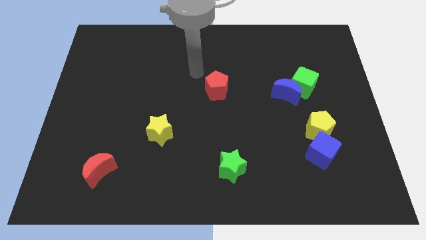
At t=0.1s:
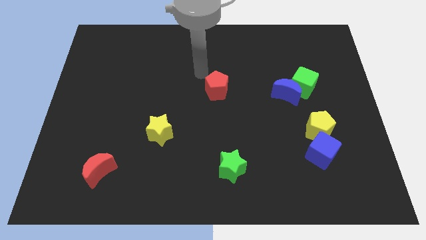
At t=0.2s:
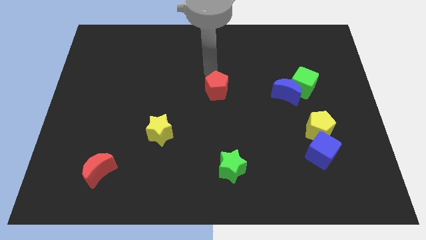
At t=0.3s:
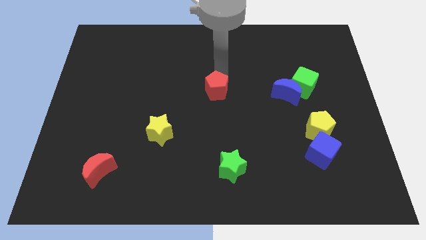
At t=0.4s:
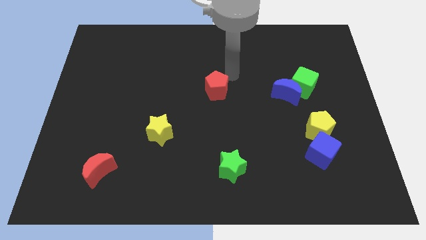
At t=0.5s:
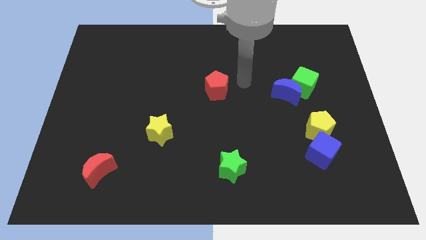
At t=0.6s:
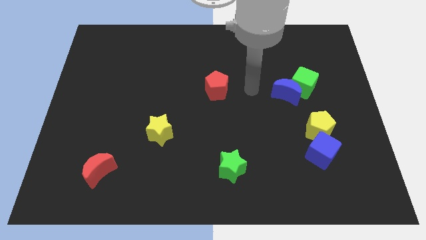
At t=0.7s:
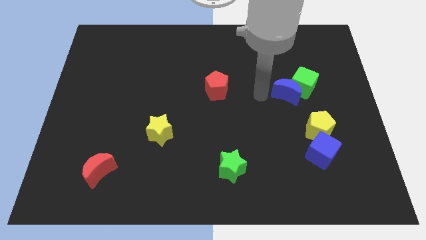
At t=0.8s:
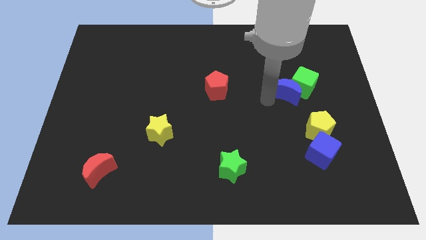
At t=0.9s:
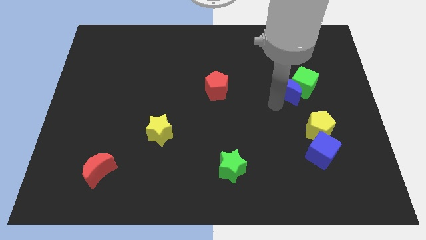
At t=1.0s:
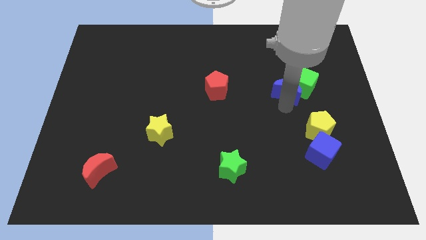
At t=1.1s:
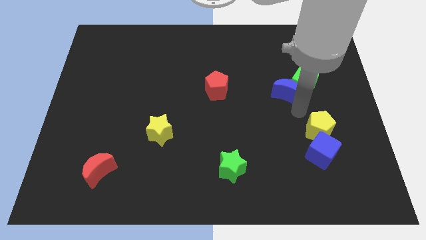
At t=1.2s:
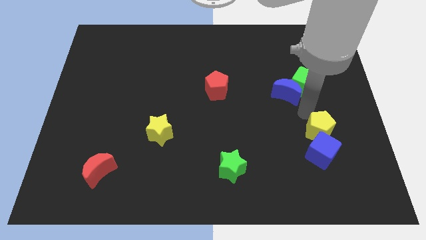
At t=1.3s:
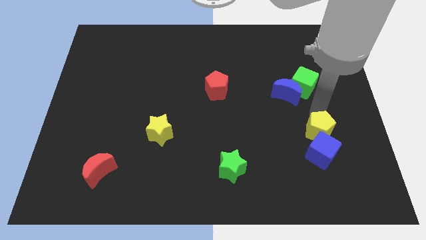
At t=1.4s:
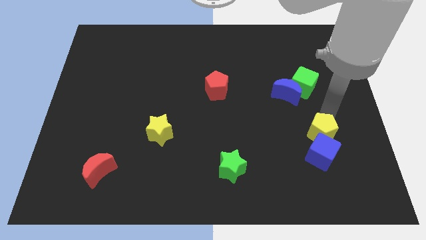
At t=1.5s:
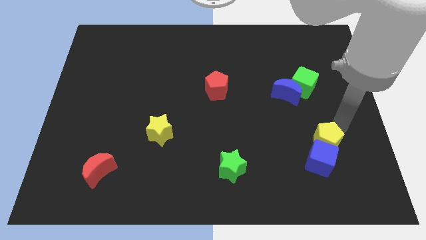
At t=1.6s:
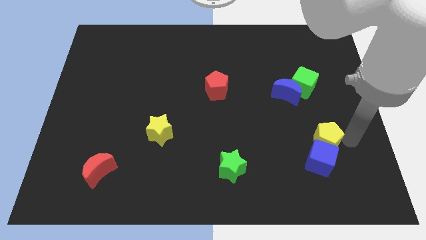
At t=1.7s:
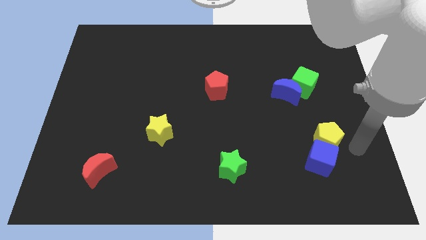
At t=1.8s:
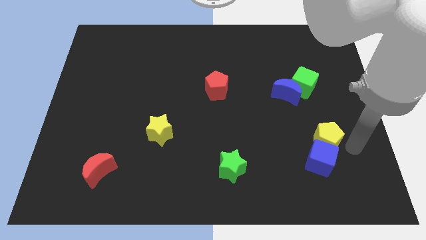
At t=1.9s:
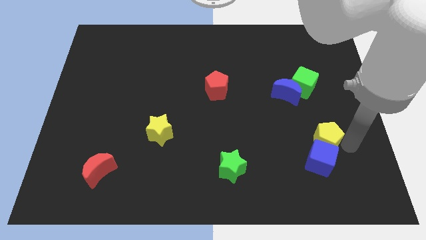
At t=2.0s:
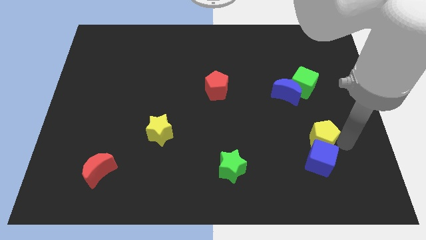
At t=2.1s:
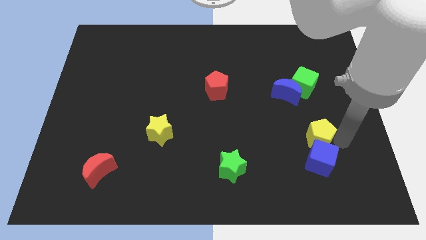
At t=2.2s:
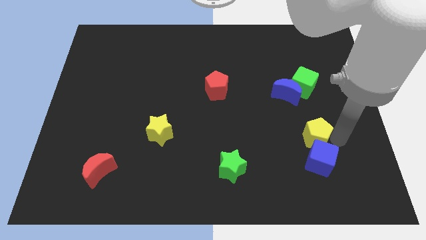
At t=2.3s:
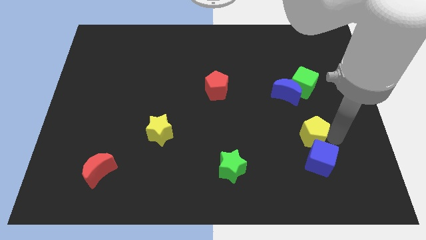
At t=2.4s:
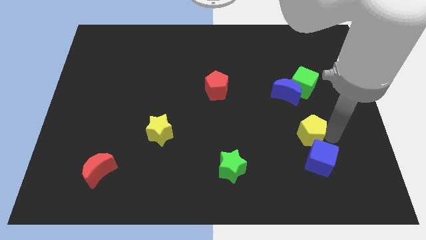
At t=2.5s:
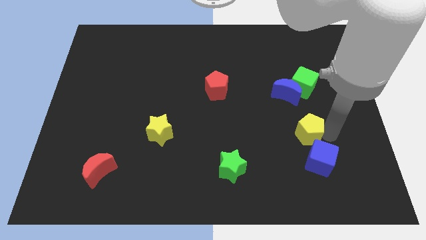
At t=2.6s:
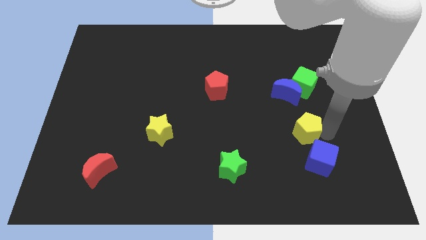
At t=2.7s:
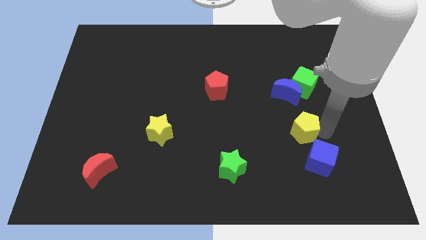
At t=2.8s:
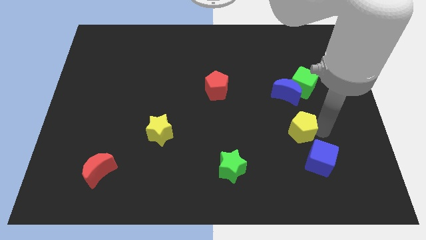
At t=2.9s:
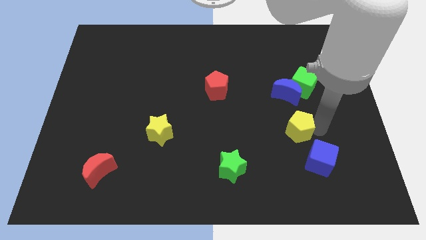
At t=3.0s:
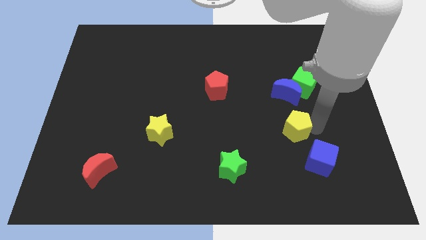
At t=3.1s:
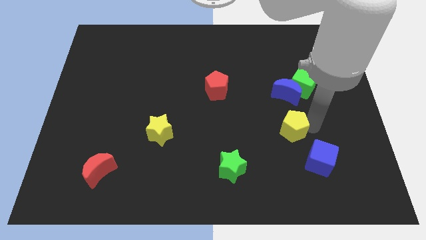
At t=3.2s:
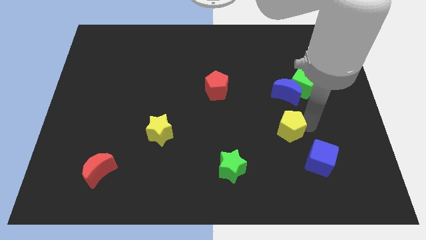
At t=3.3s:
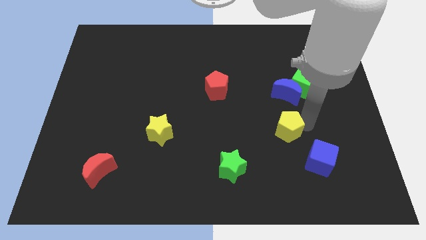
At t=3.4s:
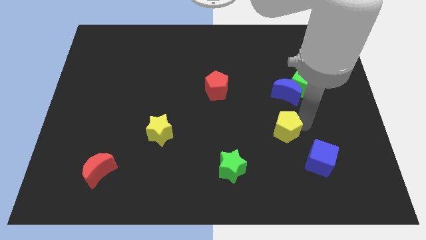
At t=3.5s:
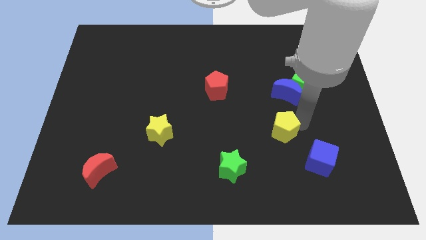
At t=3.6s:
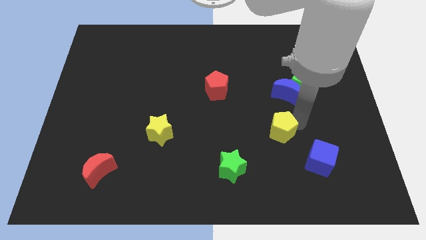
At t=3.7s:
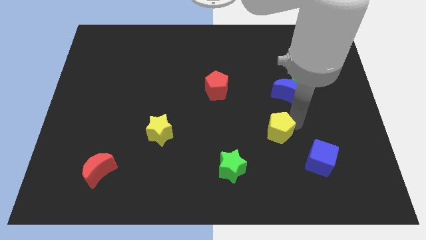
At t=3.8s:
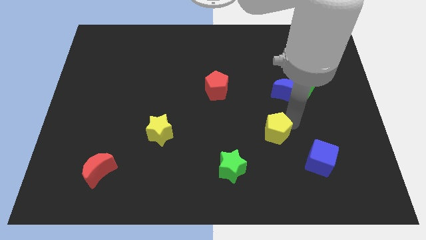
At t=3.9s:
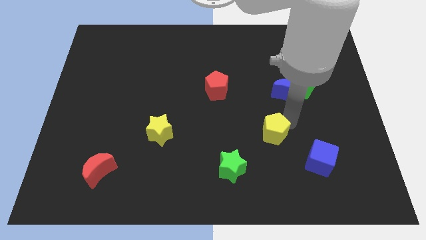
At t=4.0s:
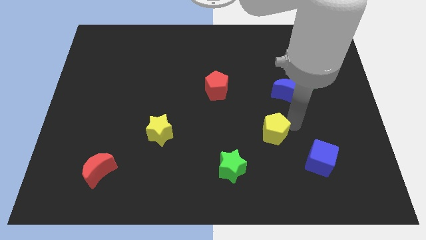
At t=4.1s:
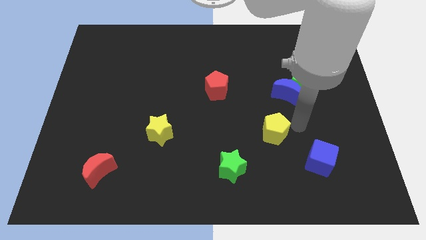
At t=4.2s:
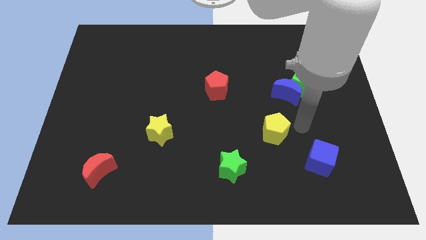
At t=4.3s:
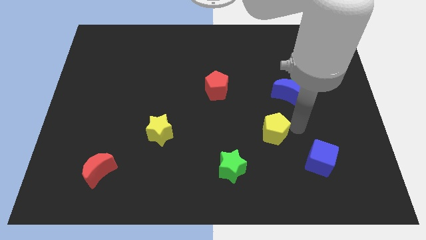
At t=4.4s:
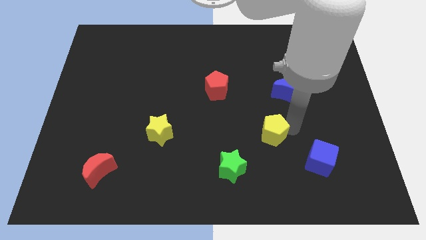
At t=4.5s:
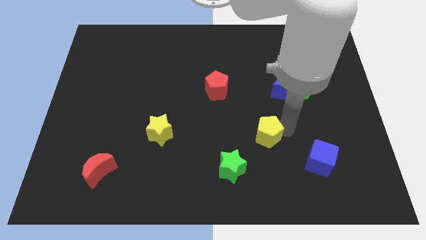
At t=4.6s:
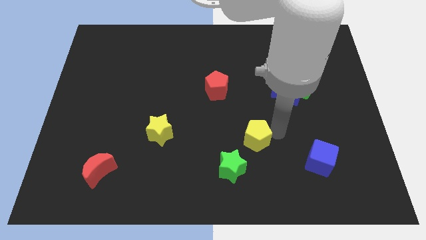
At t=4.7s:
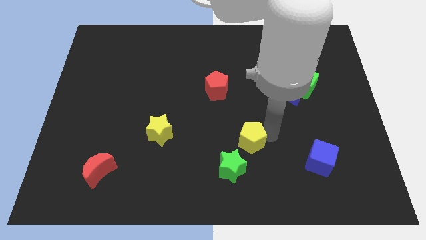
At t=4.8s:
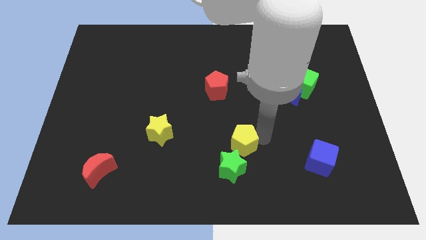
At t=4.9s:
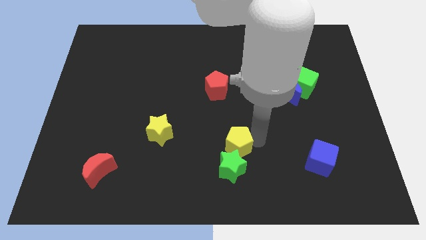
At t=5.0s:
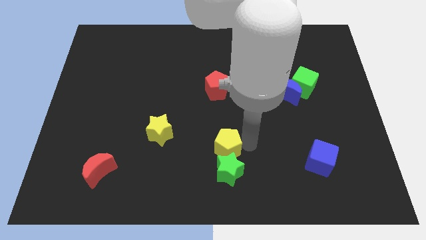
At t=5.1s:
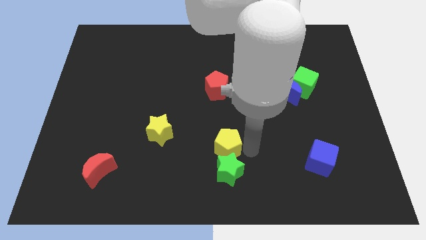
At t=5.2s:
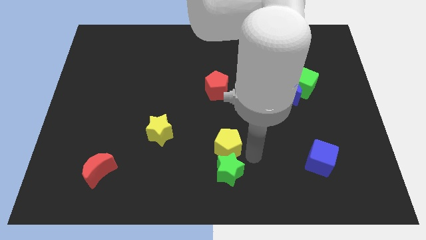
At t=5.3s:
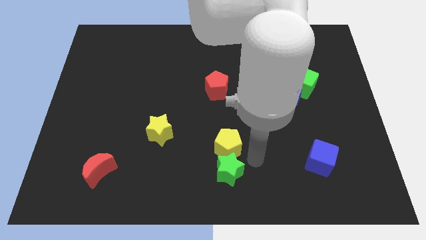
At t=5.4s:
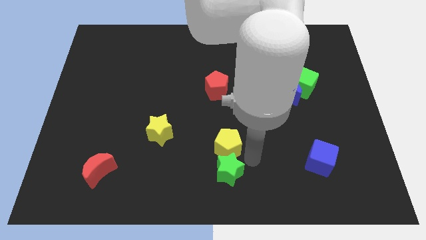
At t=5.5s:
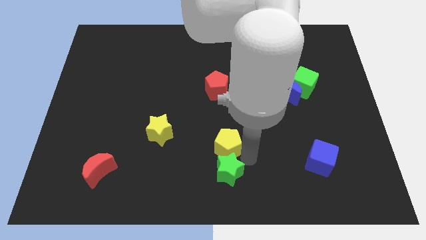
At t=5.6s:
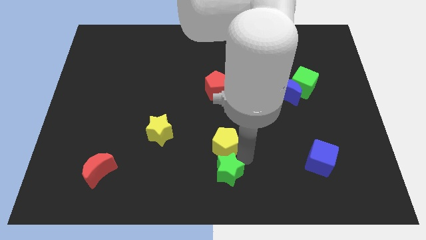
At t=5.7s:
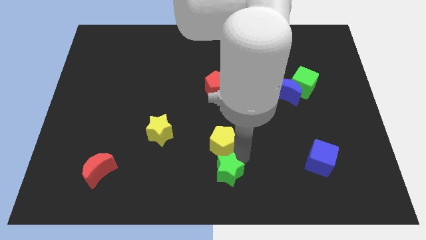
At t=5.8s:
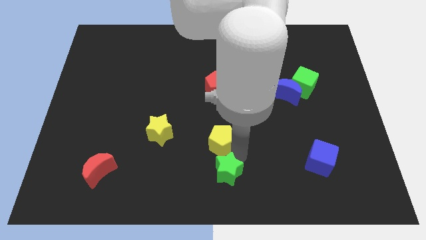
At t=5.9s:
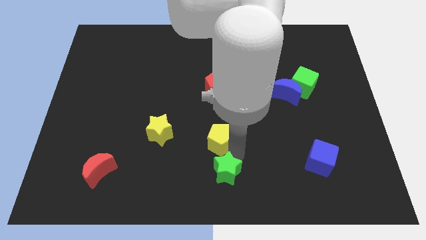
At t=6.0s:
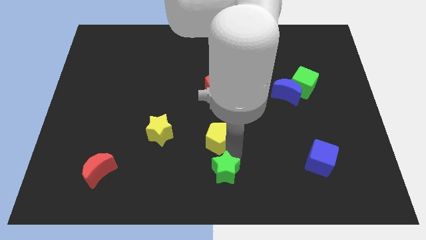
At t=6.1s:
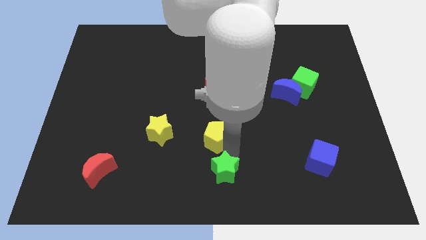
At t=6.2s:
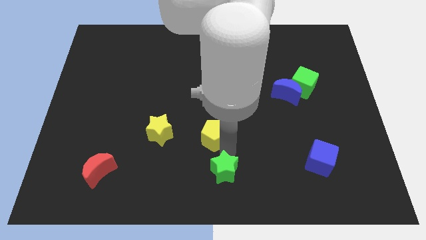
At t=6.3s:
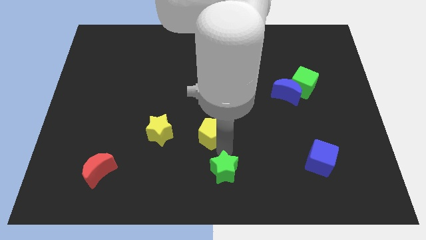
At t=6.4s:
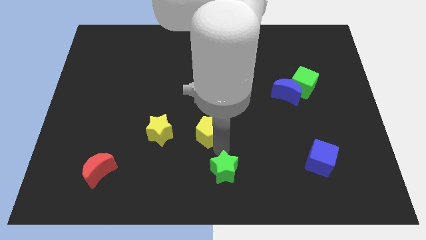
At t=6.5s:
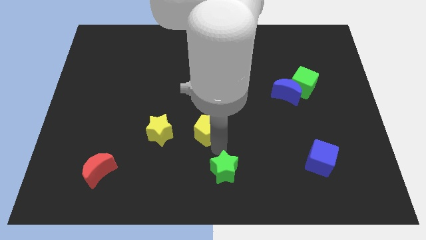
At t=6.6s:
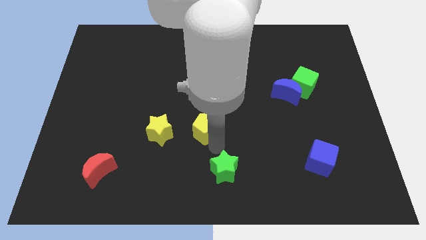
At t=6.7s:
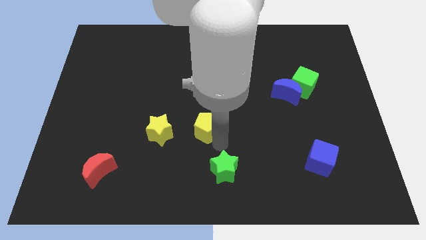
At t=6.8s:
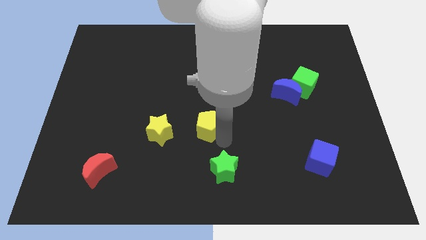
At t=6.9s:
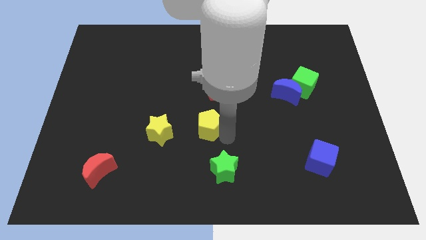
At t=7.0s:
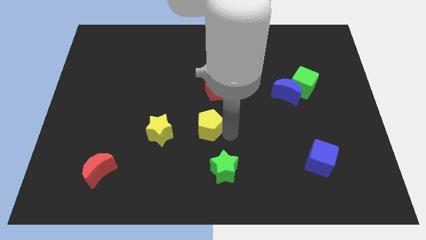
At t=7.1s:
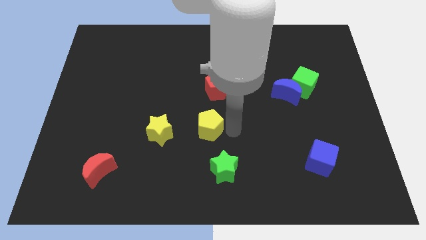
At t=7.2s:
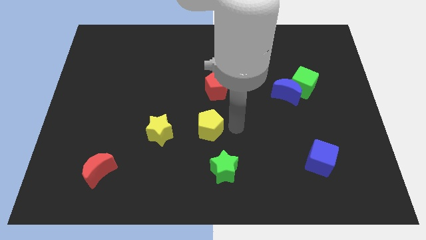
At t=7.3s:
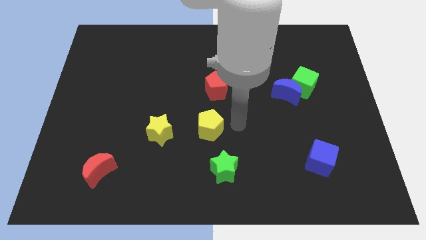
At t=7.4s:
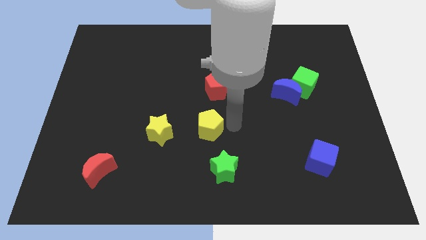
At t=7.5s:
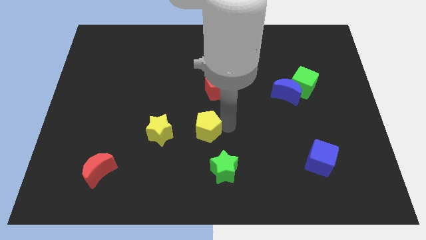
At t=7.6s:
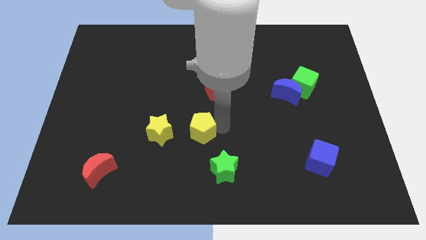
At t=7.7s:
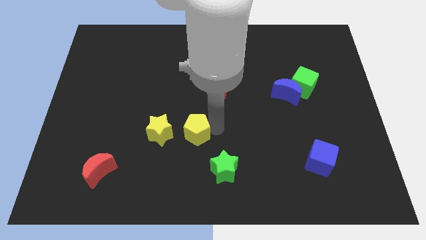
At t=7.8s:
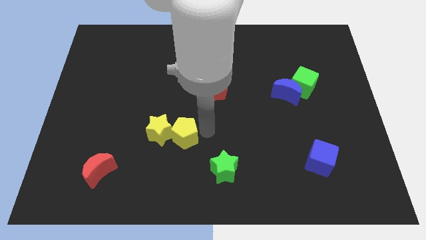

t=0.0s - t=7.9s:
slide the yellow pentagon close to the yellow star
